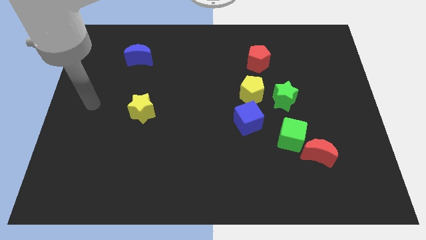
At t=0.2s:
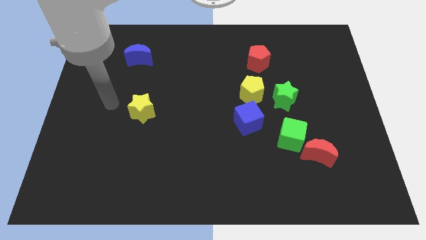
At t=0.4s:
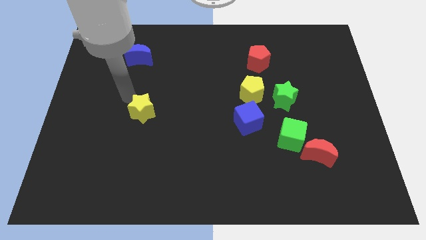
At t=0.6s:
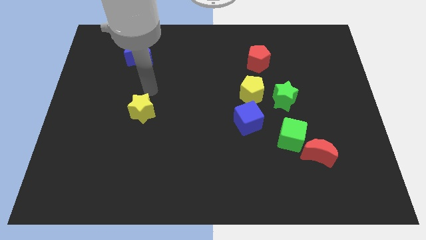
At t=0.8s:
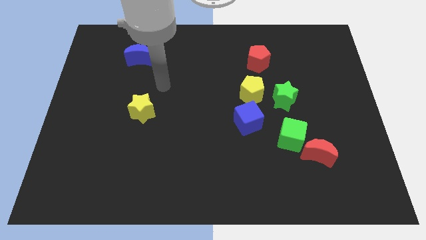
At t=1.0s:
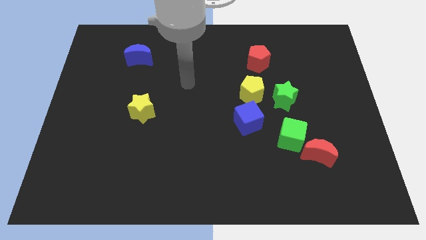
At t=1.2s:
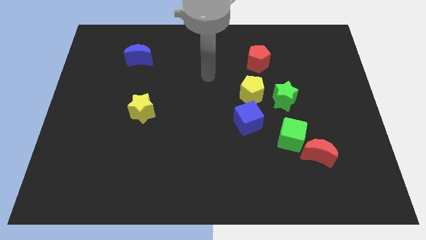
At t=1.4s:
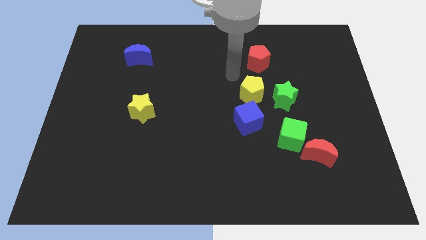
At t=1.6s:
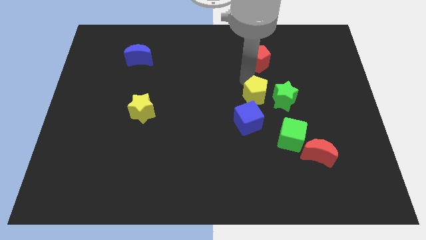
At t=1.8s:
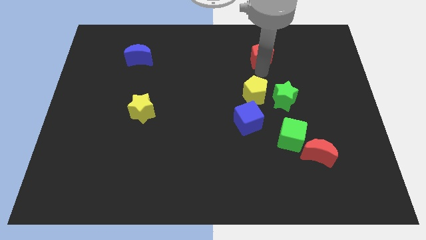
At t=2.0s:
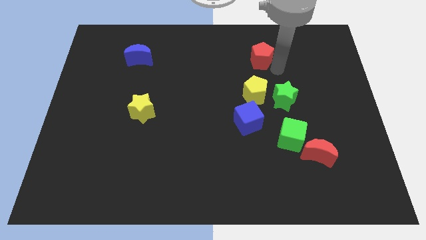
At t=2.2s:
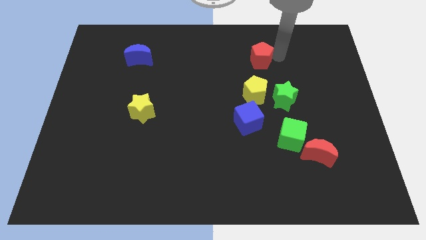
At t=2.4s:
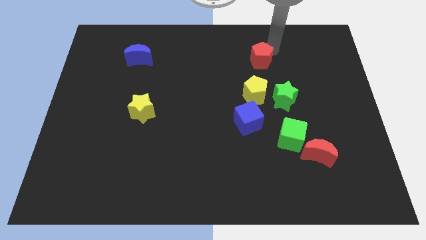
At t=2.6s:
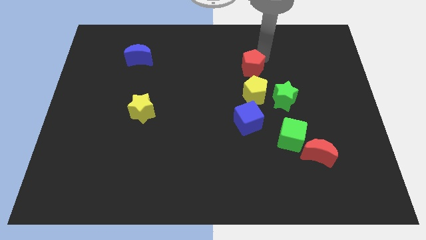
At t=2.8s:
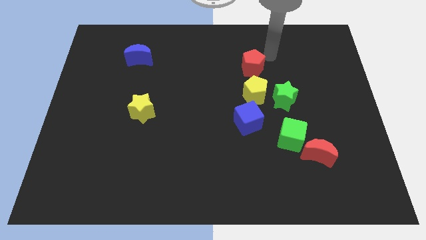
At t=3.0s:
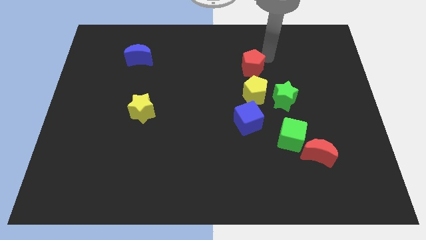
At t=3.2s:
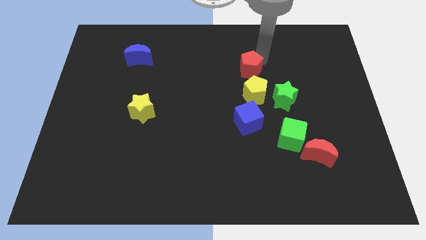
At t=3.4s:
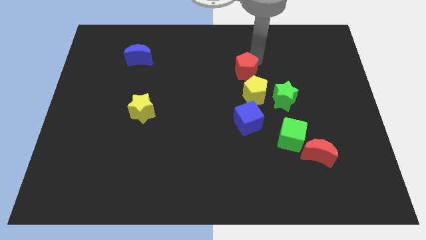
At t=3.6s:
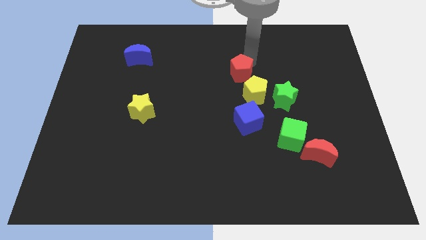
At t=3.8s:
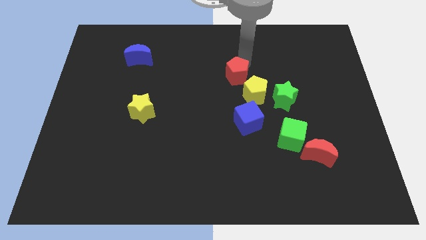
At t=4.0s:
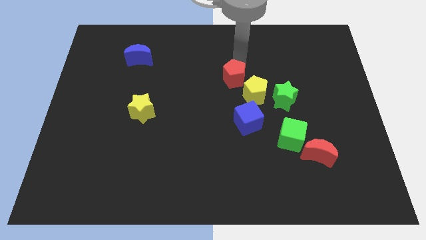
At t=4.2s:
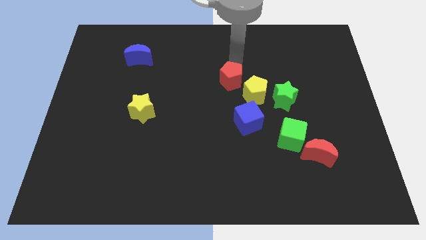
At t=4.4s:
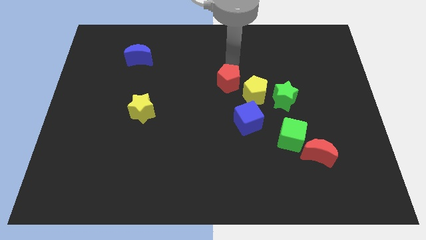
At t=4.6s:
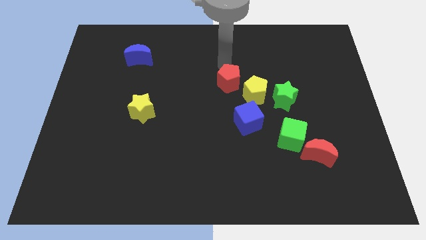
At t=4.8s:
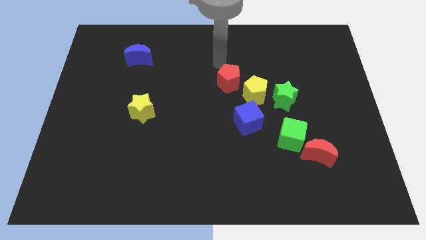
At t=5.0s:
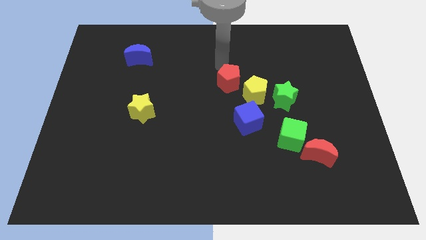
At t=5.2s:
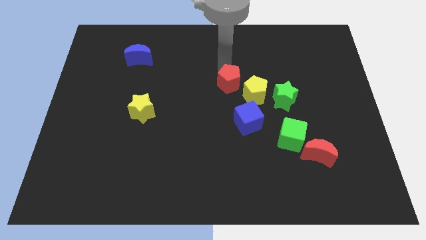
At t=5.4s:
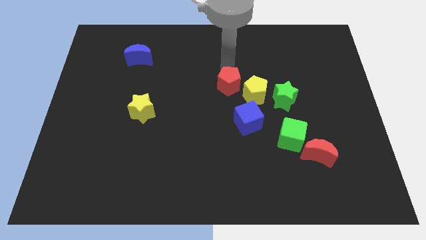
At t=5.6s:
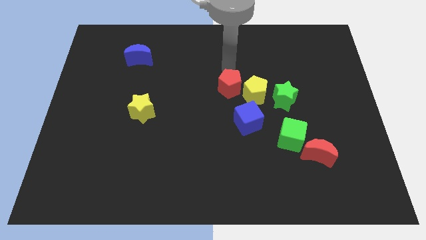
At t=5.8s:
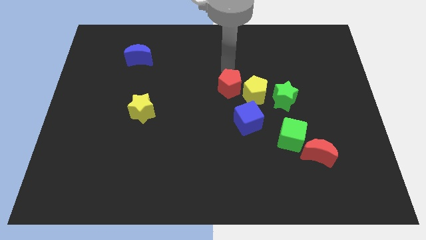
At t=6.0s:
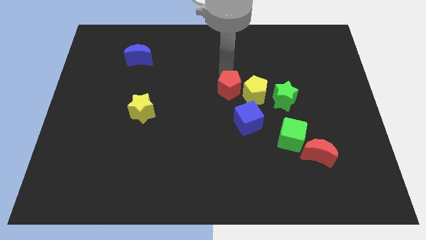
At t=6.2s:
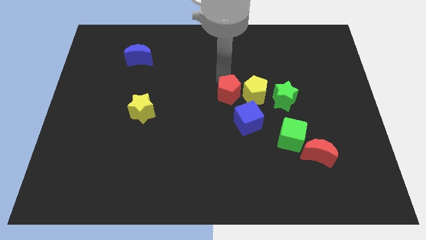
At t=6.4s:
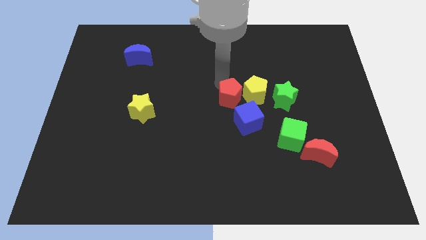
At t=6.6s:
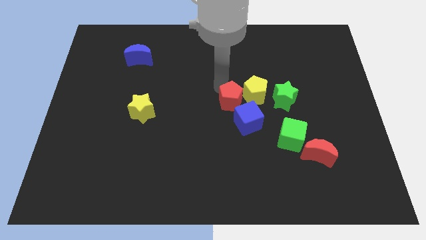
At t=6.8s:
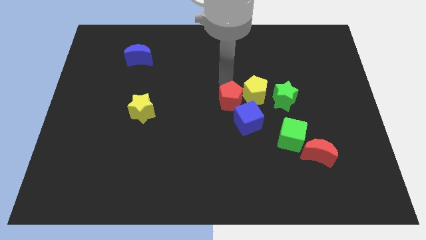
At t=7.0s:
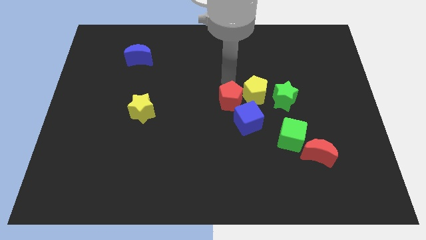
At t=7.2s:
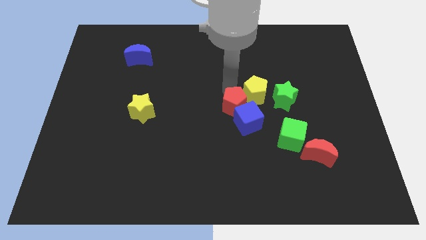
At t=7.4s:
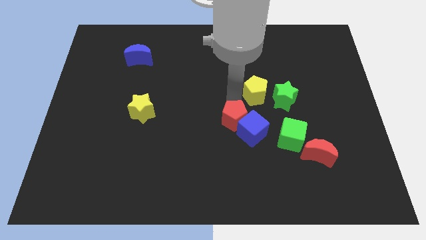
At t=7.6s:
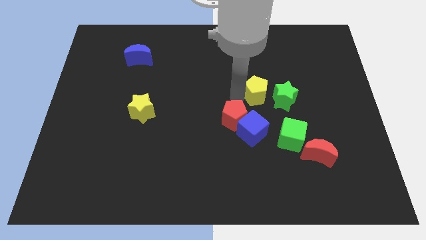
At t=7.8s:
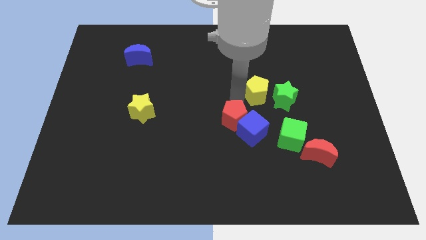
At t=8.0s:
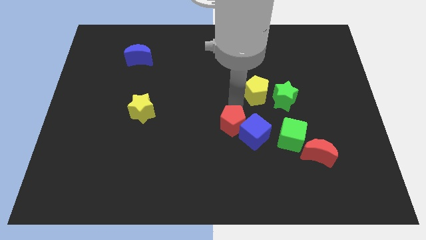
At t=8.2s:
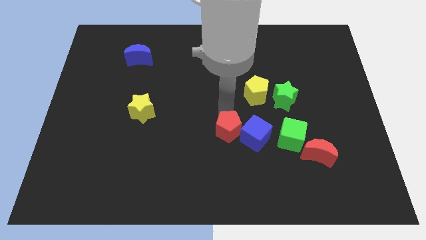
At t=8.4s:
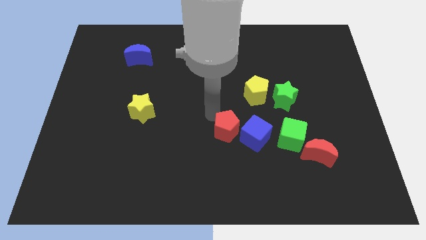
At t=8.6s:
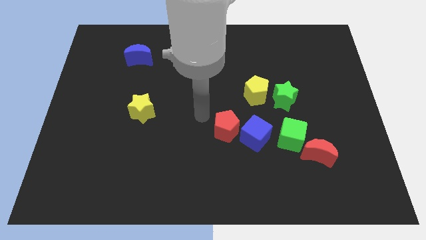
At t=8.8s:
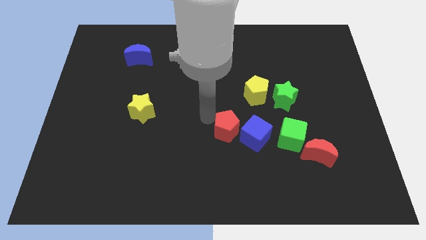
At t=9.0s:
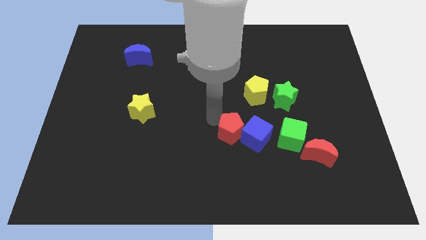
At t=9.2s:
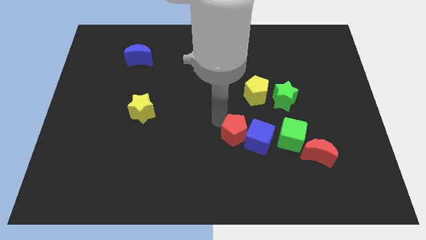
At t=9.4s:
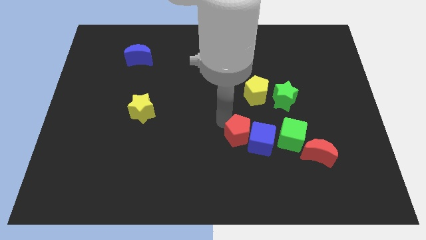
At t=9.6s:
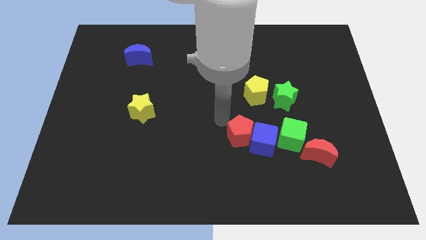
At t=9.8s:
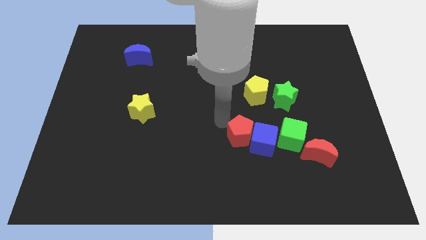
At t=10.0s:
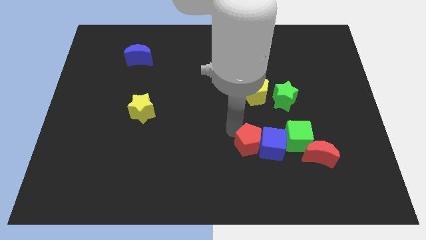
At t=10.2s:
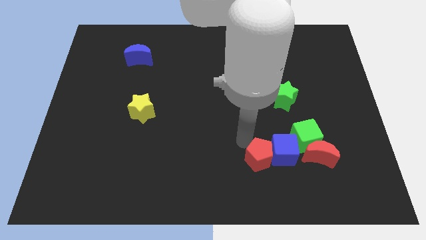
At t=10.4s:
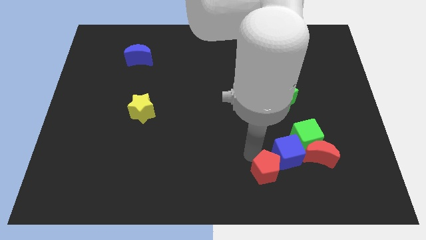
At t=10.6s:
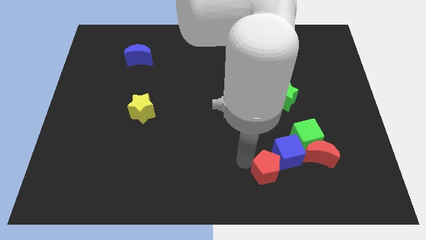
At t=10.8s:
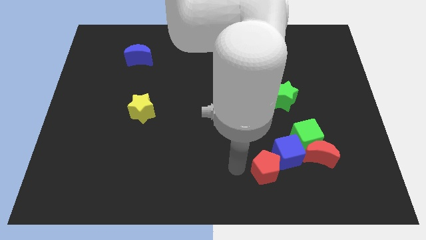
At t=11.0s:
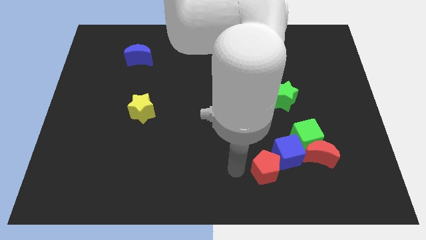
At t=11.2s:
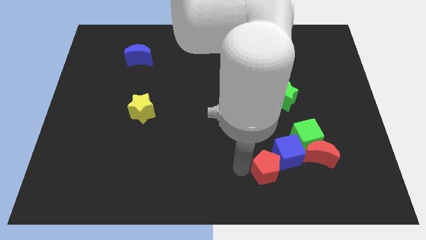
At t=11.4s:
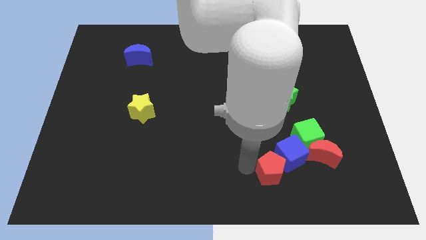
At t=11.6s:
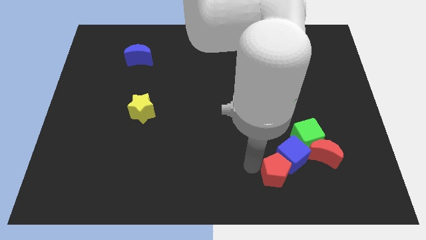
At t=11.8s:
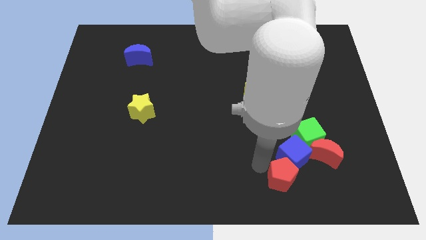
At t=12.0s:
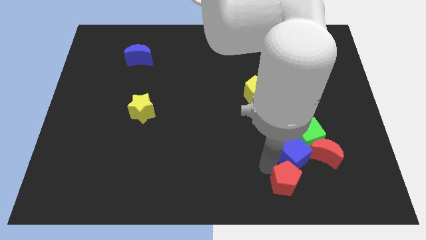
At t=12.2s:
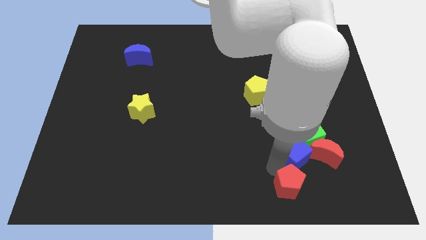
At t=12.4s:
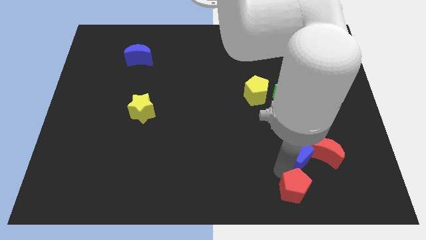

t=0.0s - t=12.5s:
slide the red pentagon to the bottom side of the green cube

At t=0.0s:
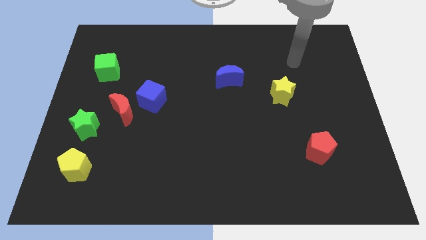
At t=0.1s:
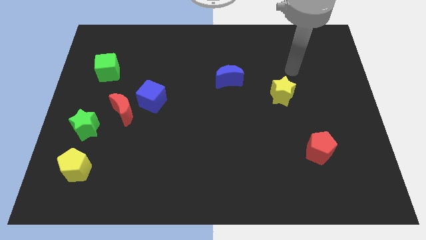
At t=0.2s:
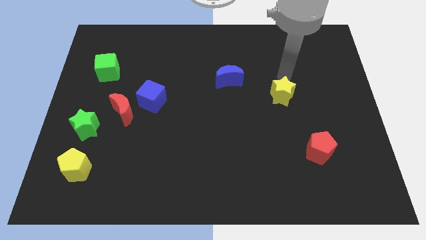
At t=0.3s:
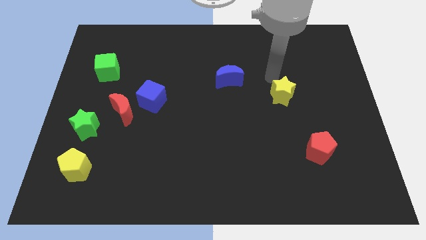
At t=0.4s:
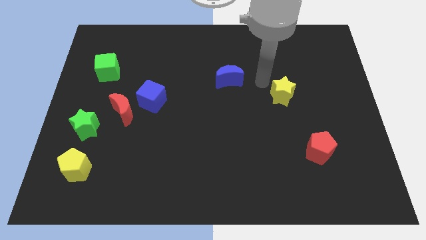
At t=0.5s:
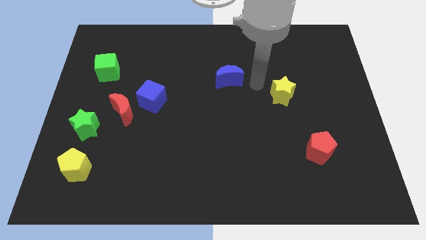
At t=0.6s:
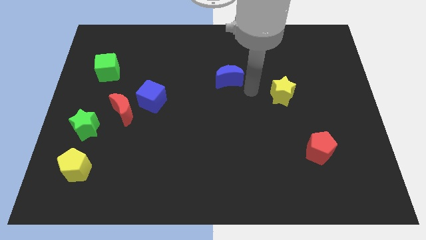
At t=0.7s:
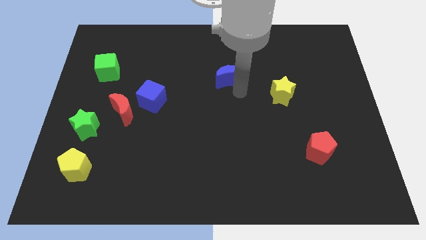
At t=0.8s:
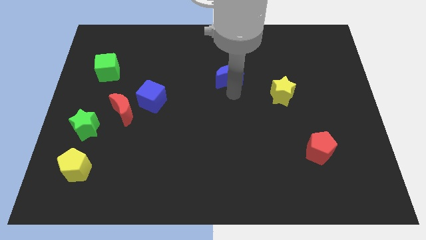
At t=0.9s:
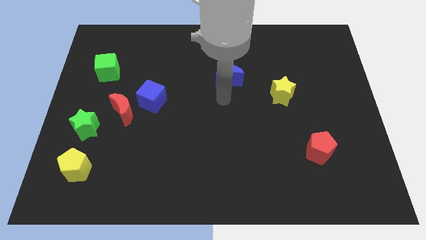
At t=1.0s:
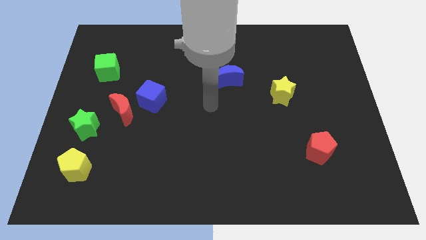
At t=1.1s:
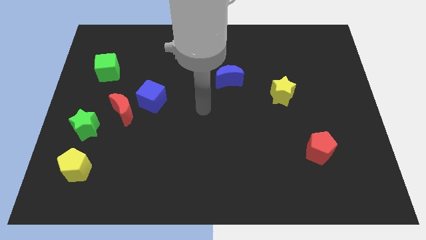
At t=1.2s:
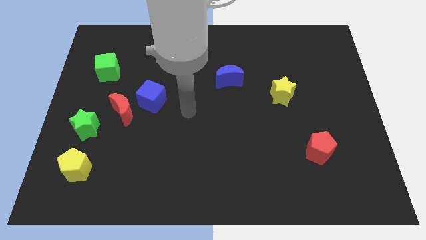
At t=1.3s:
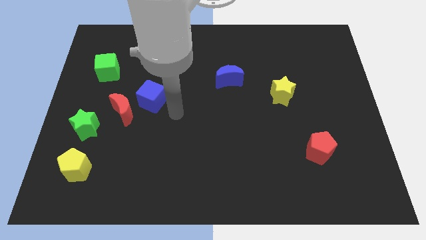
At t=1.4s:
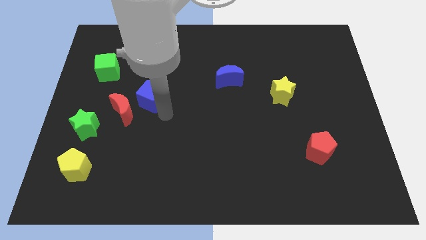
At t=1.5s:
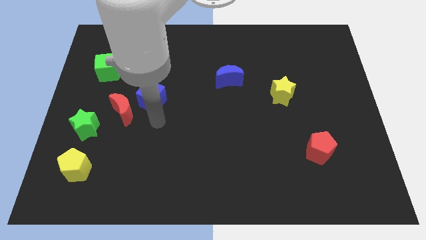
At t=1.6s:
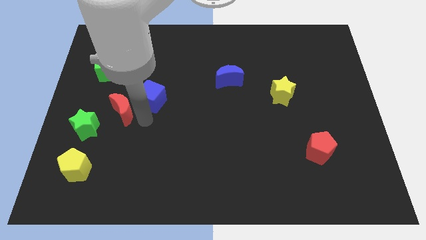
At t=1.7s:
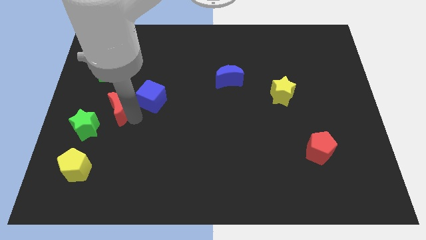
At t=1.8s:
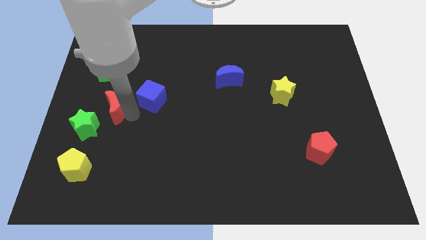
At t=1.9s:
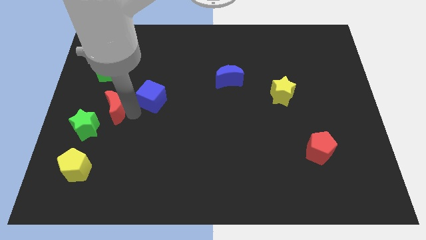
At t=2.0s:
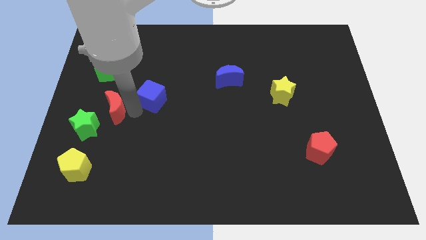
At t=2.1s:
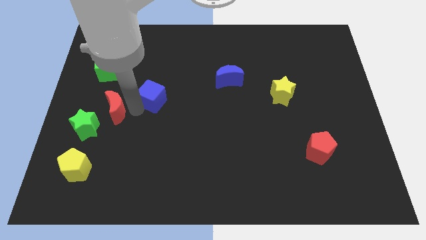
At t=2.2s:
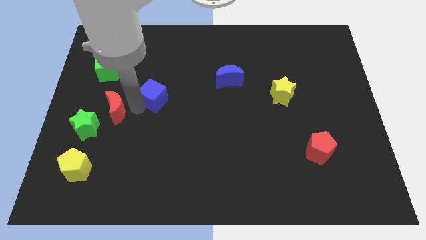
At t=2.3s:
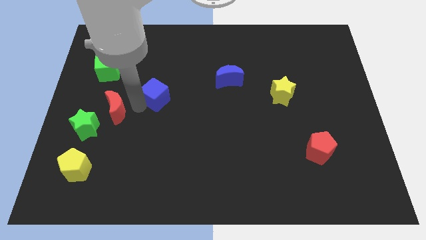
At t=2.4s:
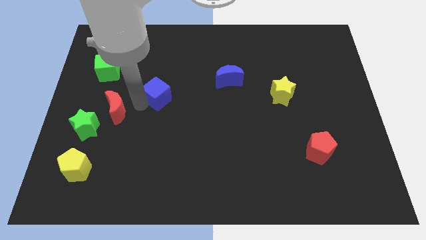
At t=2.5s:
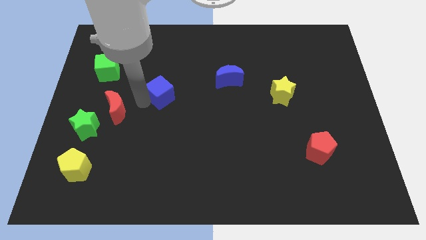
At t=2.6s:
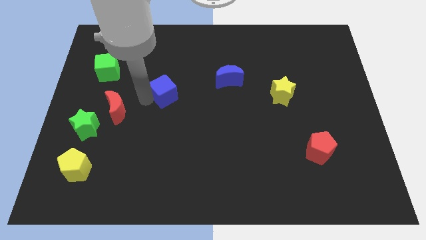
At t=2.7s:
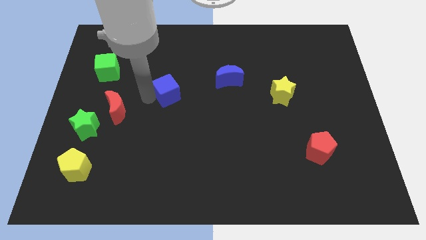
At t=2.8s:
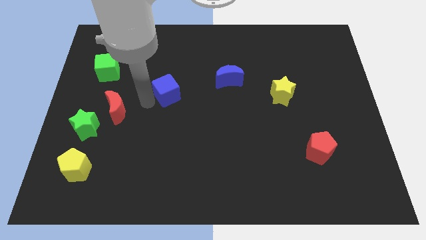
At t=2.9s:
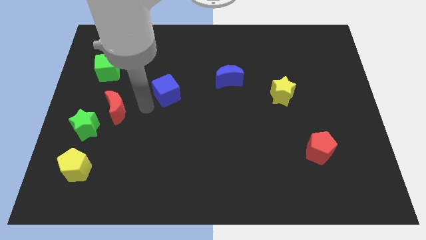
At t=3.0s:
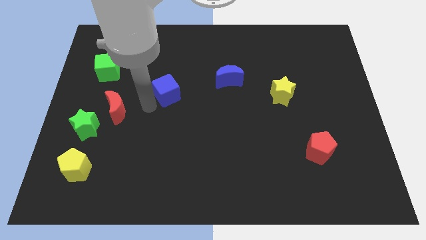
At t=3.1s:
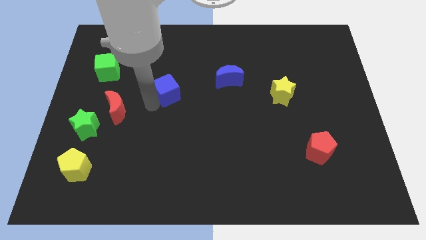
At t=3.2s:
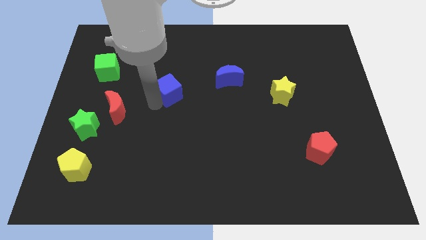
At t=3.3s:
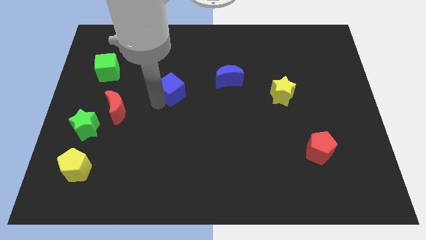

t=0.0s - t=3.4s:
put the blue cube left of the blue moon
